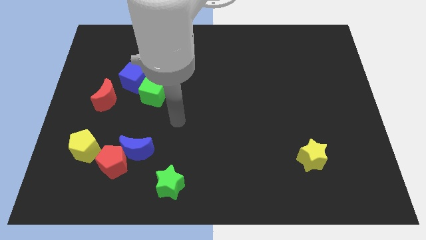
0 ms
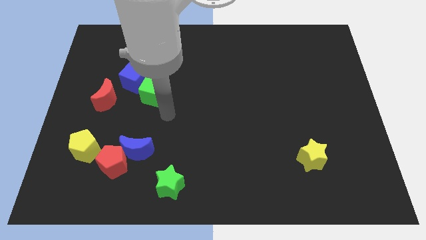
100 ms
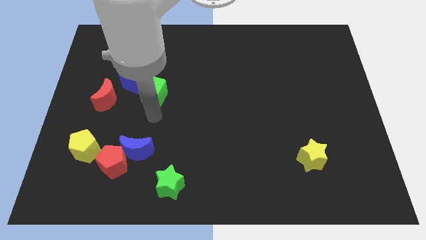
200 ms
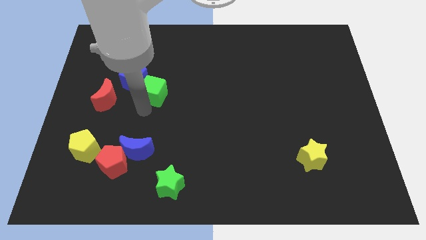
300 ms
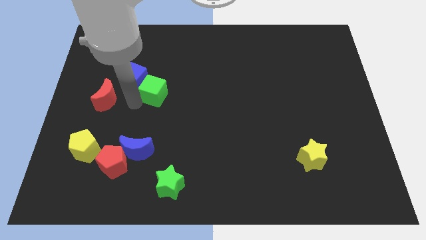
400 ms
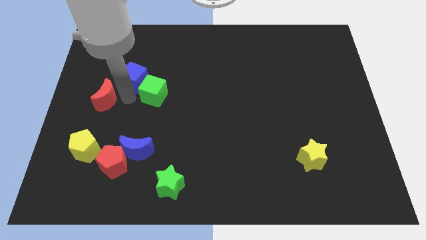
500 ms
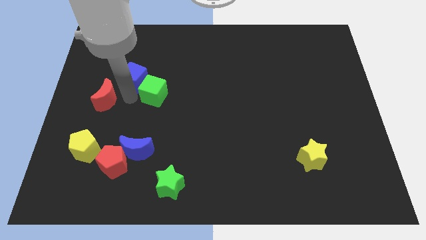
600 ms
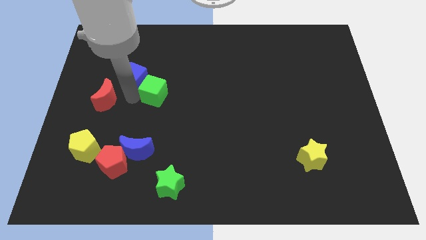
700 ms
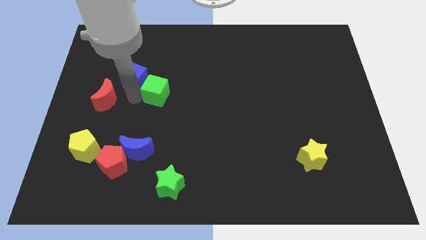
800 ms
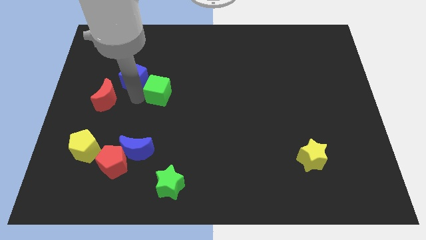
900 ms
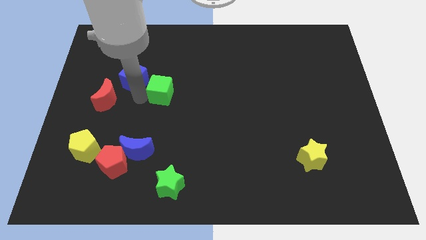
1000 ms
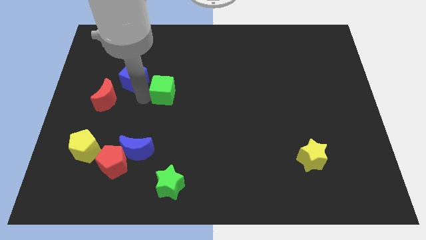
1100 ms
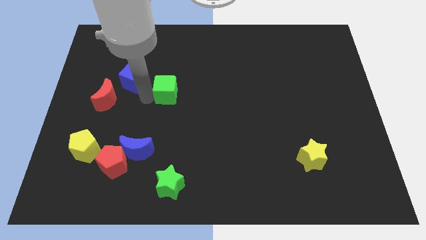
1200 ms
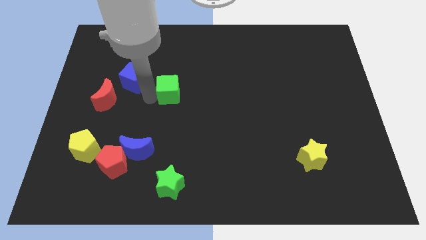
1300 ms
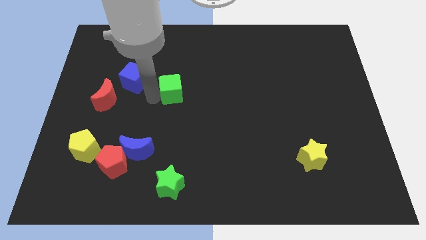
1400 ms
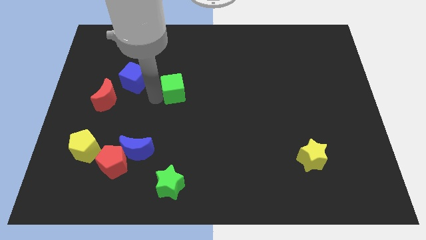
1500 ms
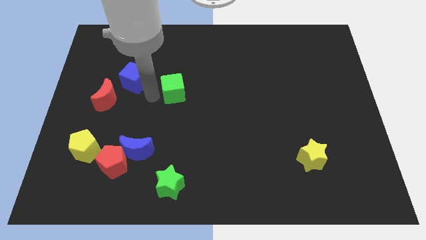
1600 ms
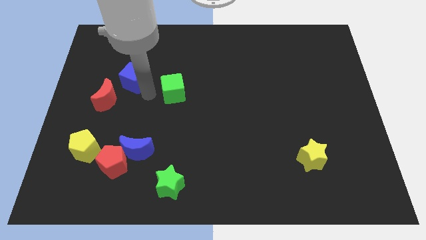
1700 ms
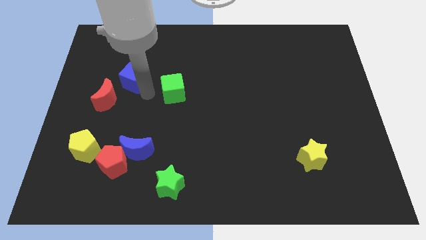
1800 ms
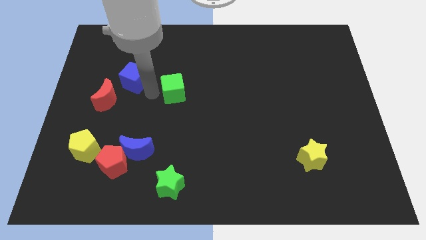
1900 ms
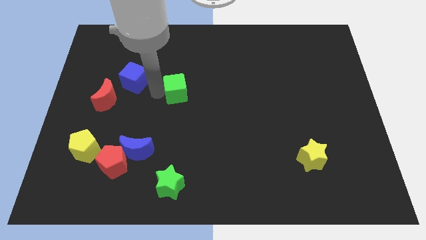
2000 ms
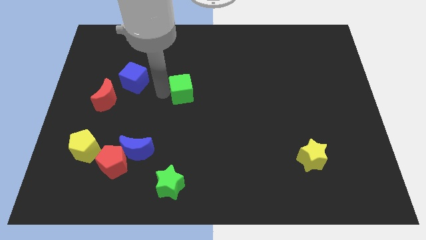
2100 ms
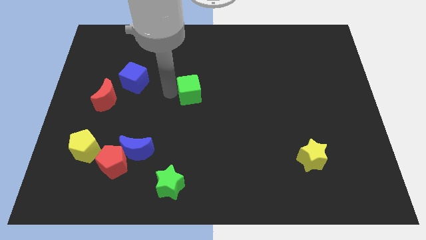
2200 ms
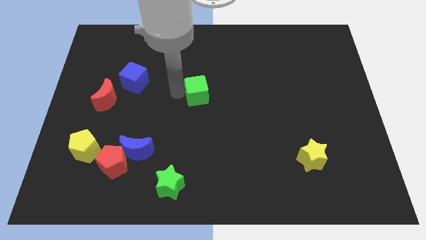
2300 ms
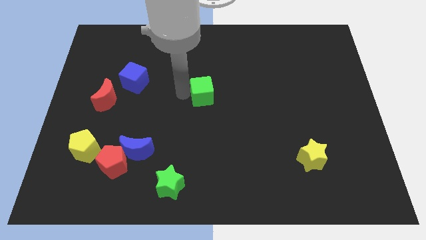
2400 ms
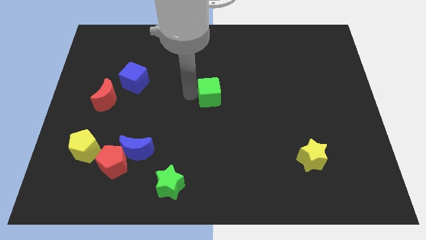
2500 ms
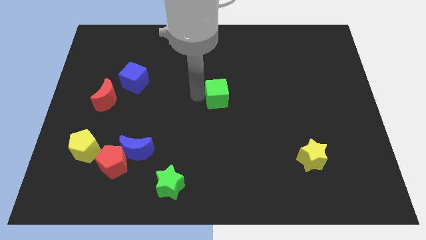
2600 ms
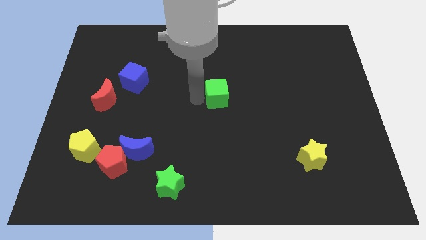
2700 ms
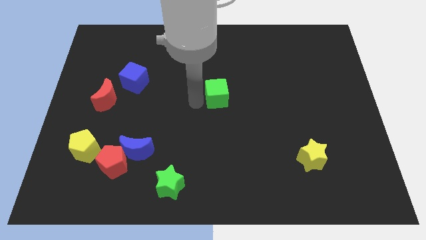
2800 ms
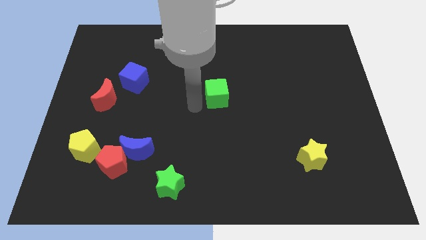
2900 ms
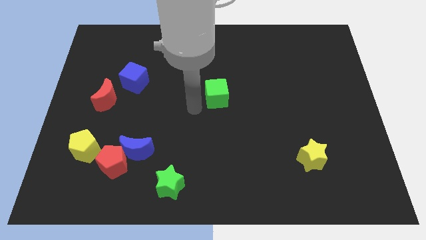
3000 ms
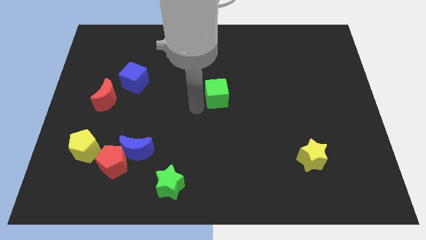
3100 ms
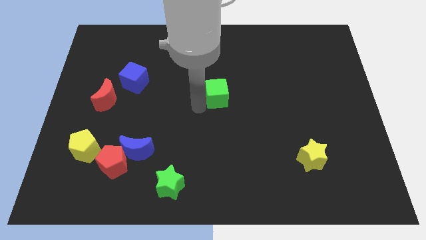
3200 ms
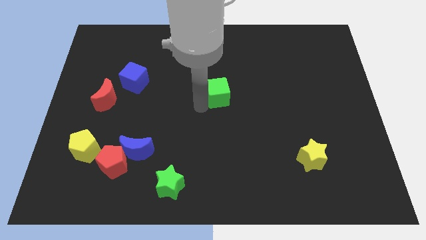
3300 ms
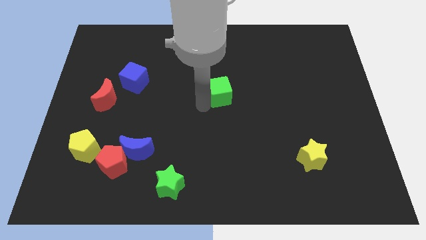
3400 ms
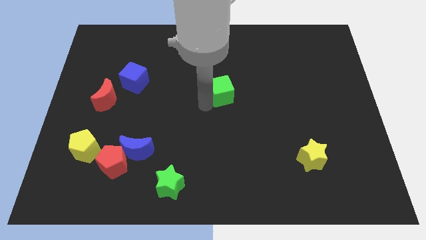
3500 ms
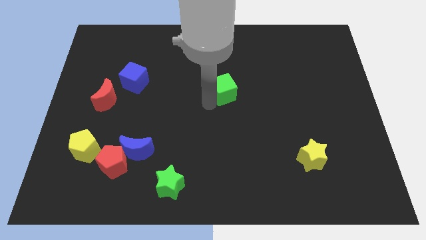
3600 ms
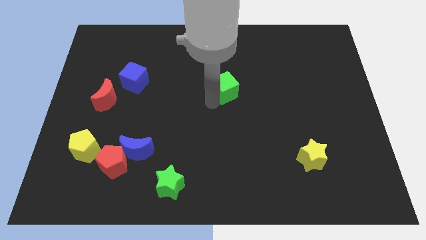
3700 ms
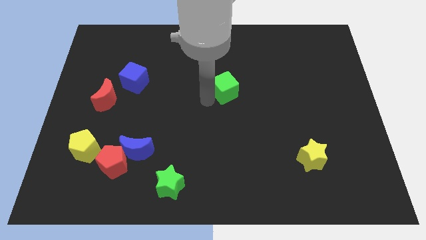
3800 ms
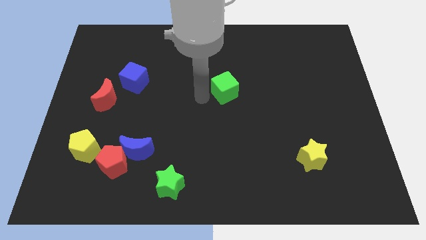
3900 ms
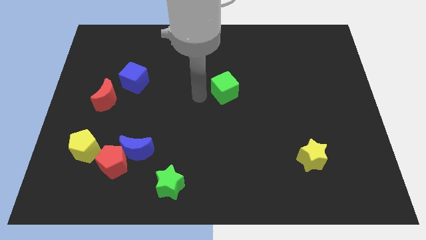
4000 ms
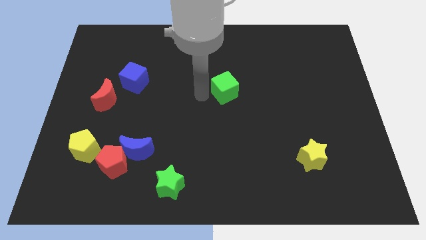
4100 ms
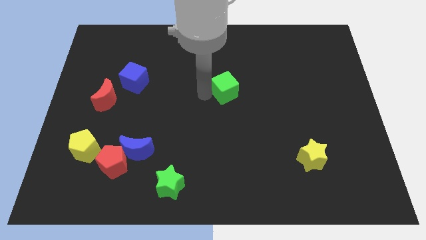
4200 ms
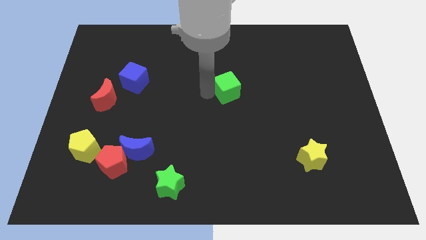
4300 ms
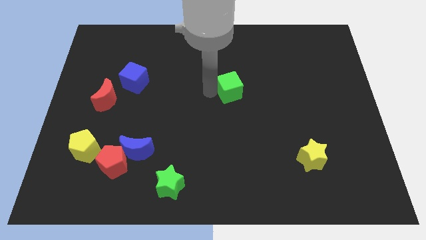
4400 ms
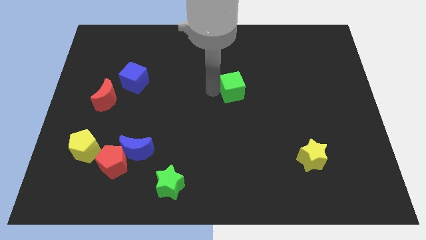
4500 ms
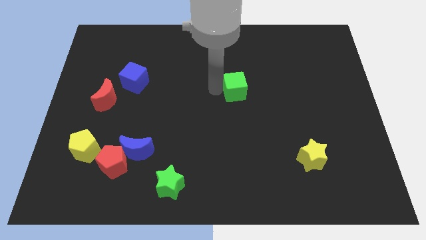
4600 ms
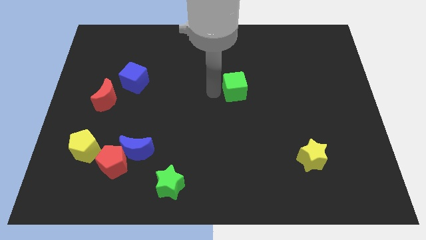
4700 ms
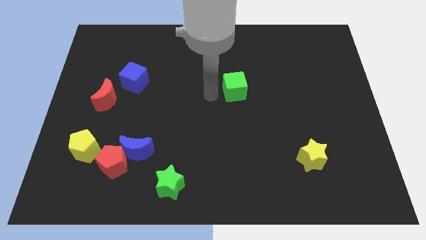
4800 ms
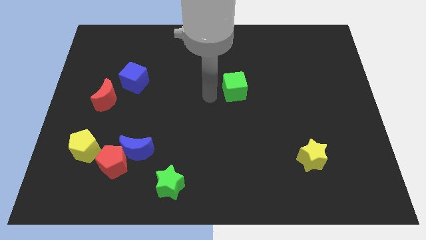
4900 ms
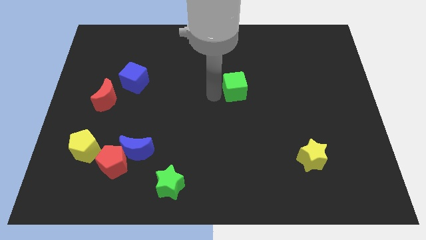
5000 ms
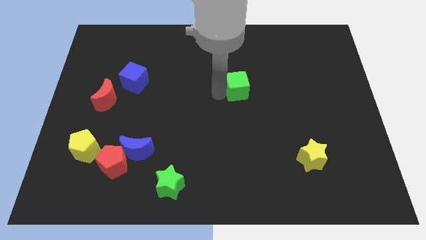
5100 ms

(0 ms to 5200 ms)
move the green cube to the right

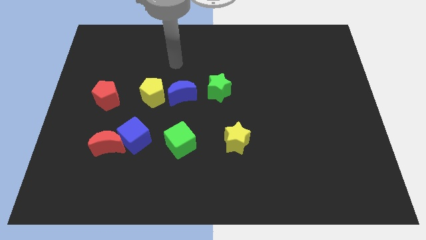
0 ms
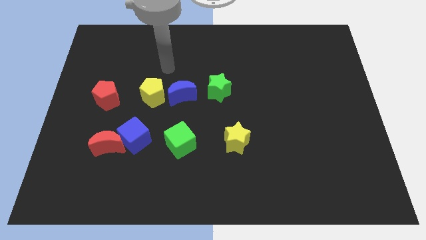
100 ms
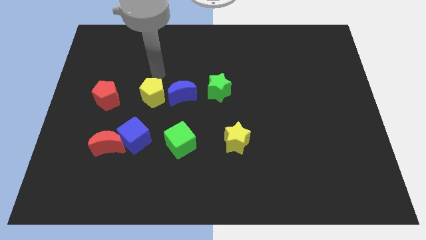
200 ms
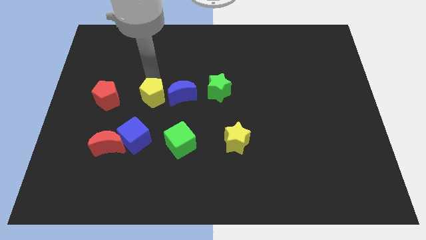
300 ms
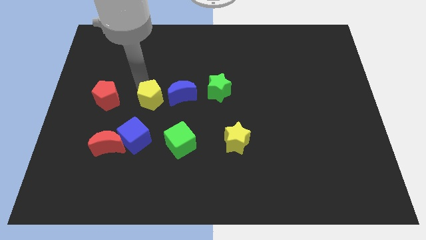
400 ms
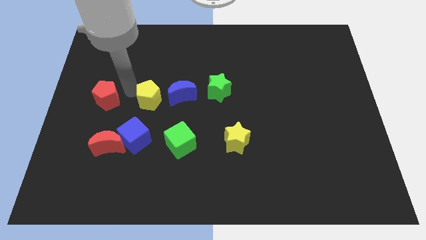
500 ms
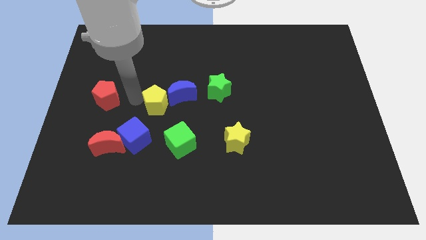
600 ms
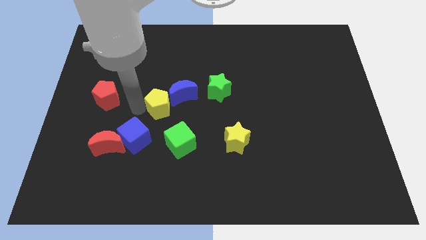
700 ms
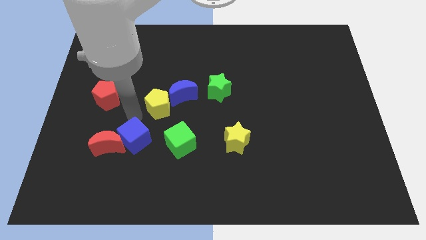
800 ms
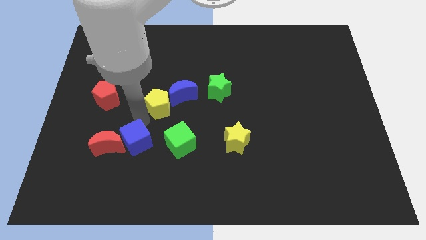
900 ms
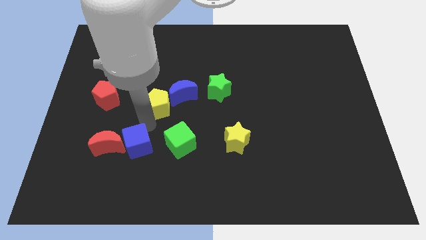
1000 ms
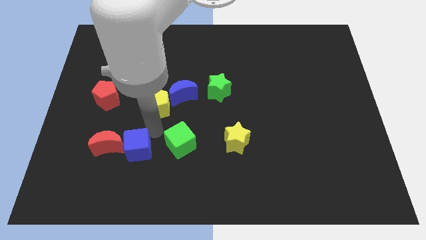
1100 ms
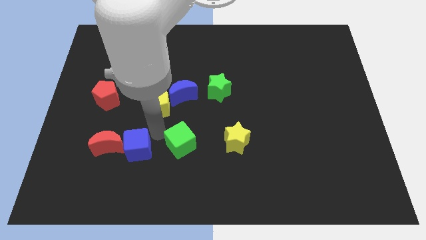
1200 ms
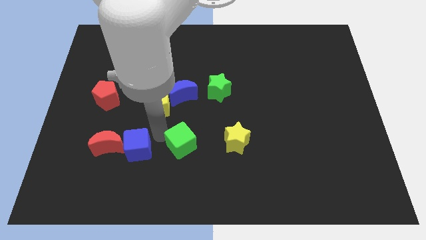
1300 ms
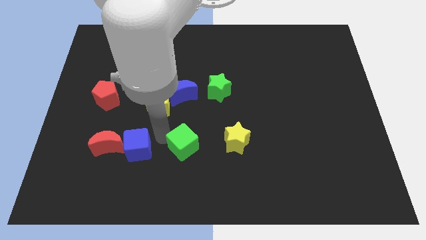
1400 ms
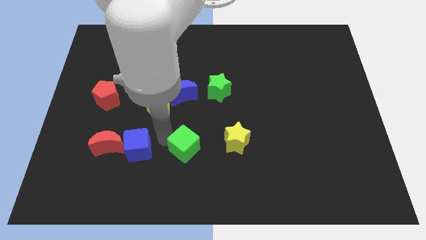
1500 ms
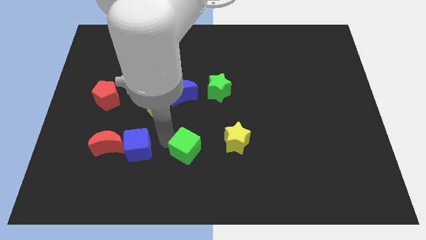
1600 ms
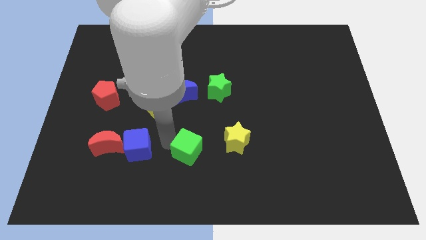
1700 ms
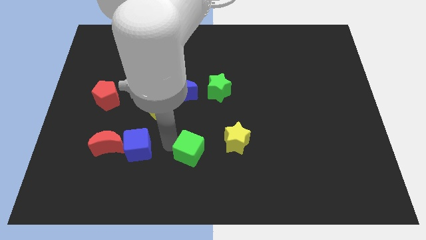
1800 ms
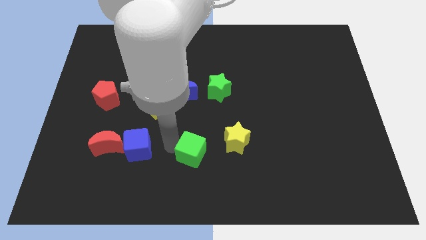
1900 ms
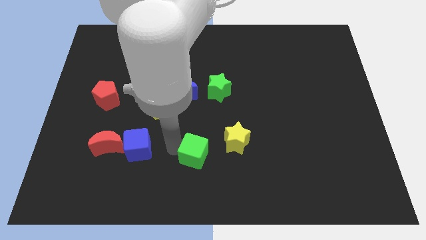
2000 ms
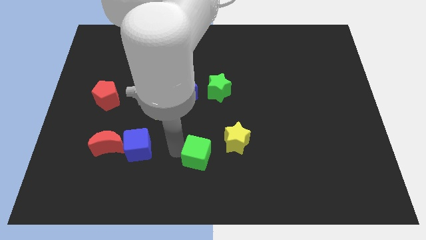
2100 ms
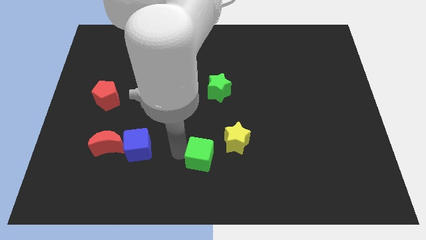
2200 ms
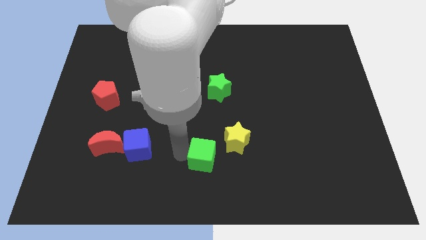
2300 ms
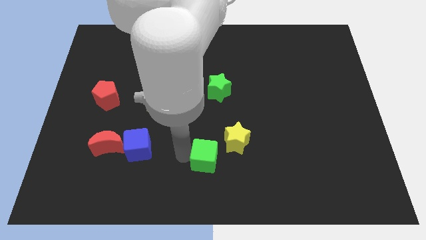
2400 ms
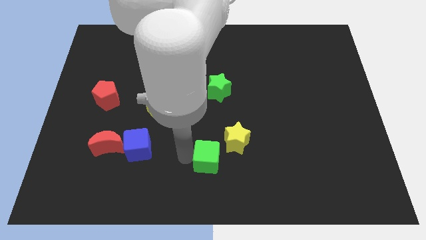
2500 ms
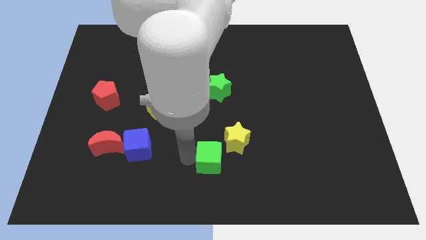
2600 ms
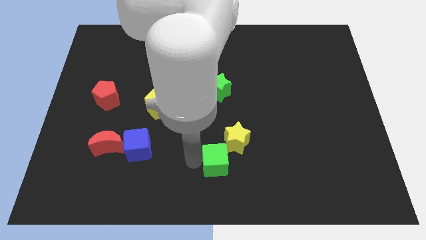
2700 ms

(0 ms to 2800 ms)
move the green cube a little right

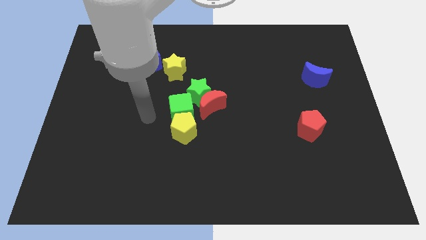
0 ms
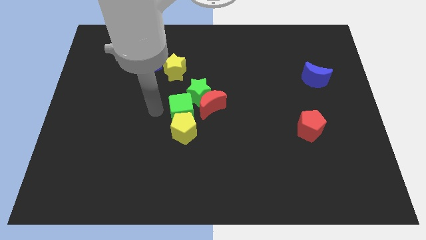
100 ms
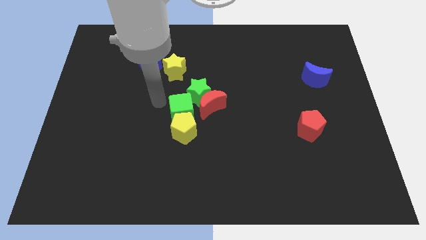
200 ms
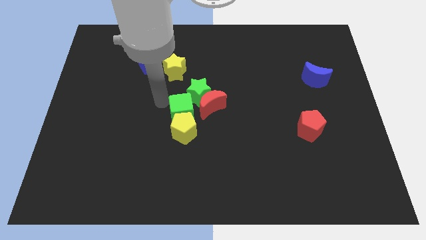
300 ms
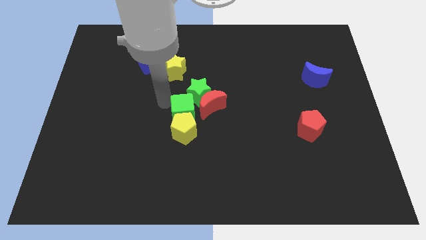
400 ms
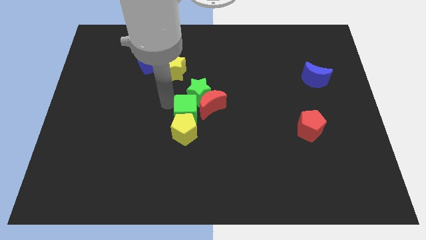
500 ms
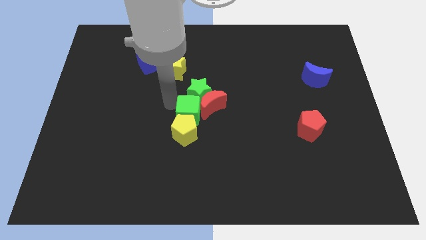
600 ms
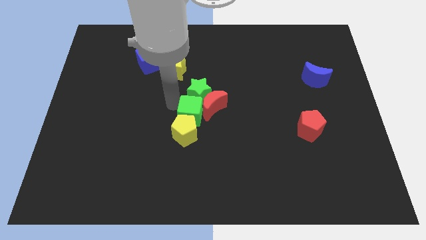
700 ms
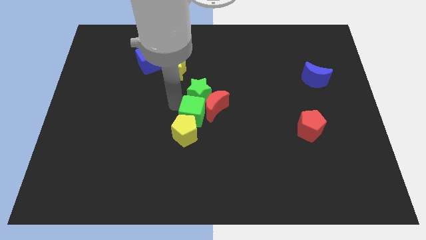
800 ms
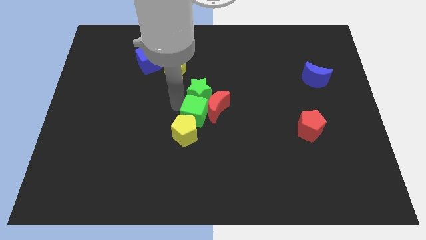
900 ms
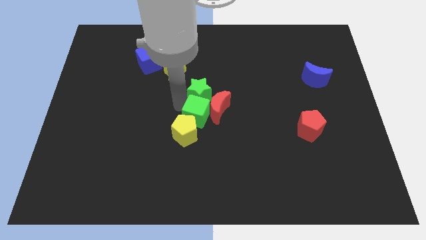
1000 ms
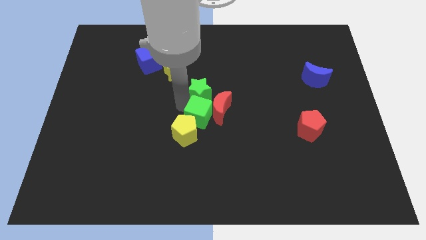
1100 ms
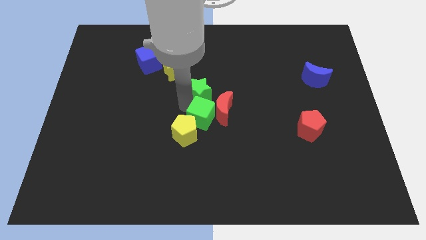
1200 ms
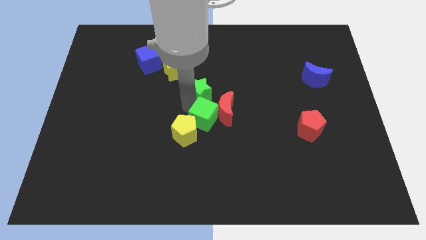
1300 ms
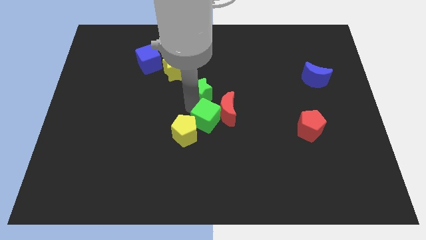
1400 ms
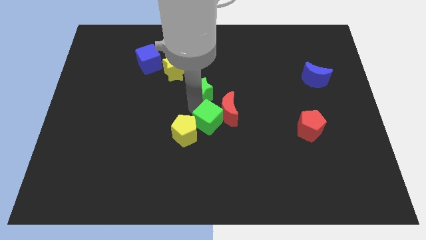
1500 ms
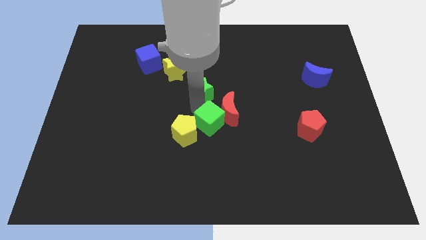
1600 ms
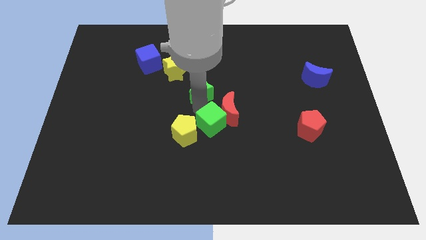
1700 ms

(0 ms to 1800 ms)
slightly move the green cube downwards and right diagonally
